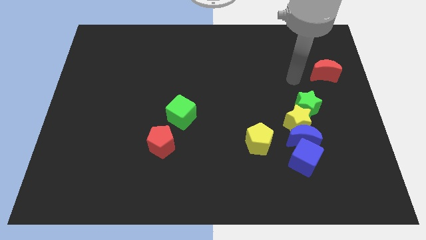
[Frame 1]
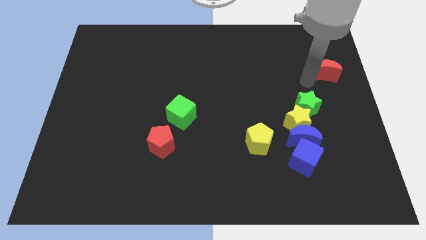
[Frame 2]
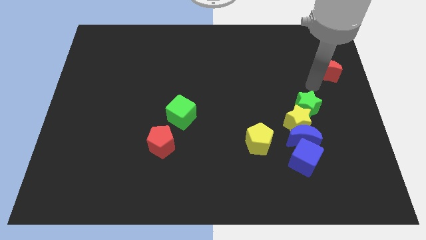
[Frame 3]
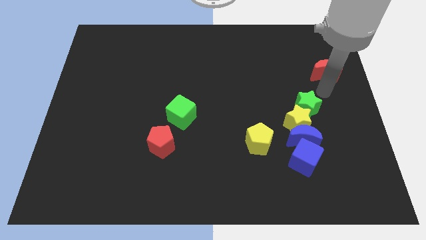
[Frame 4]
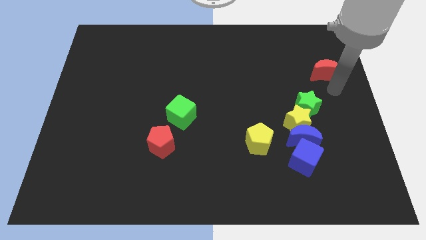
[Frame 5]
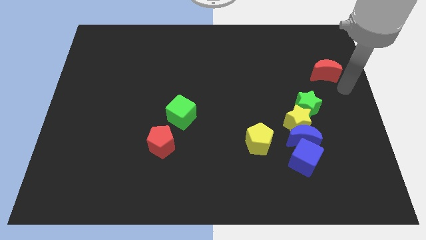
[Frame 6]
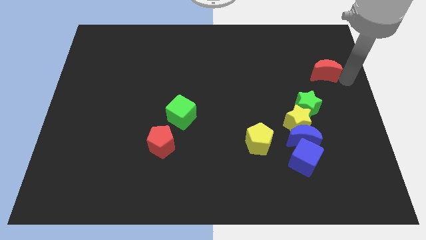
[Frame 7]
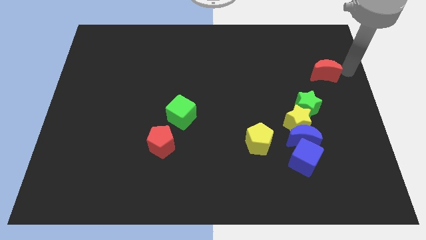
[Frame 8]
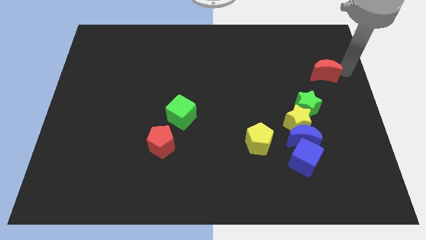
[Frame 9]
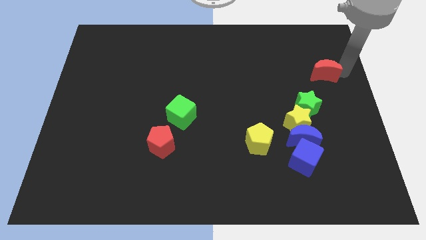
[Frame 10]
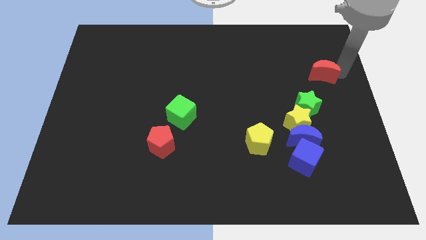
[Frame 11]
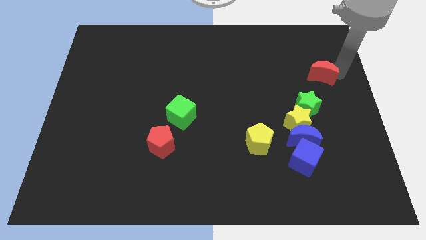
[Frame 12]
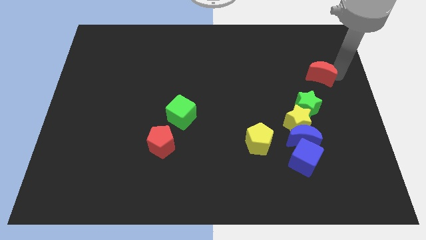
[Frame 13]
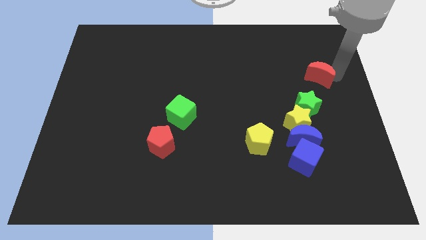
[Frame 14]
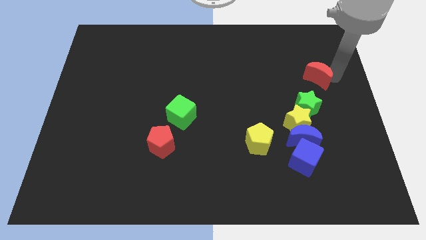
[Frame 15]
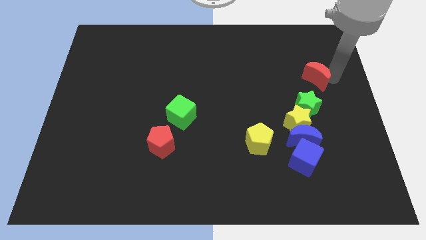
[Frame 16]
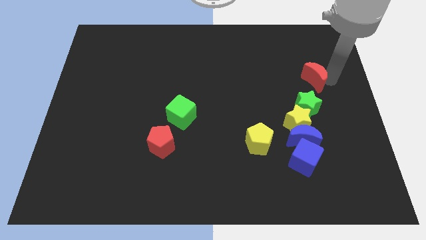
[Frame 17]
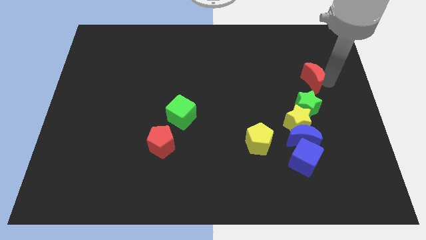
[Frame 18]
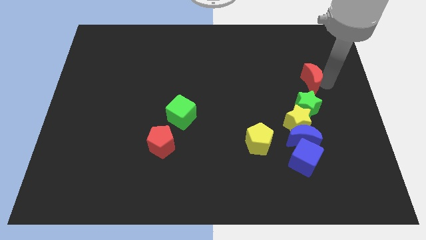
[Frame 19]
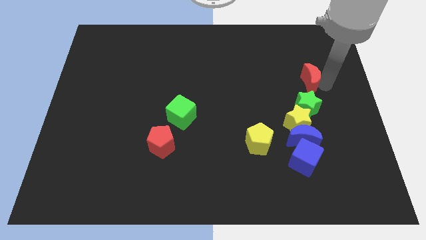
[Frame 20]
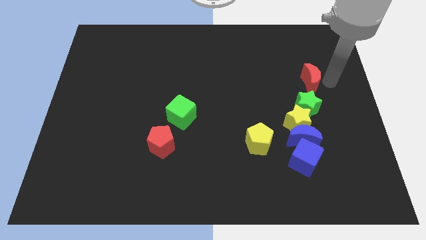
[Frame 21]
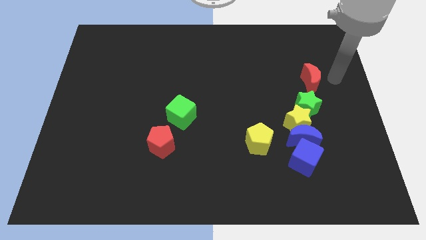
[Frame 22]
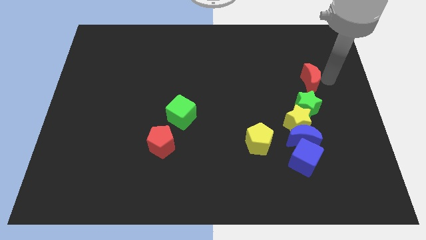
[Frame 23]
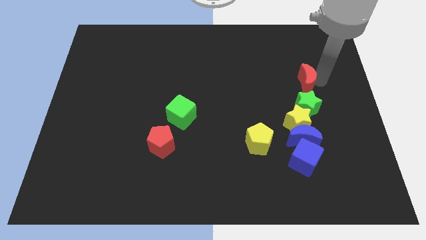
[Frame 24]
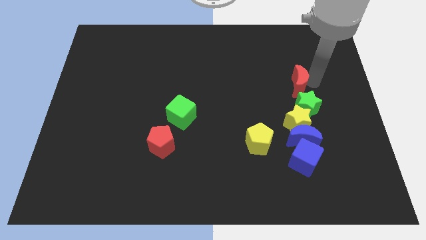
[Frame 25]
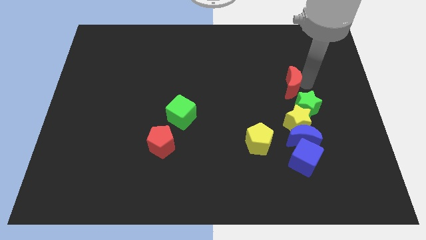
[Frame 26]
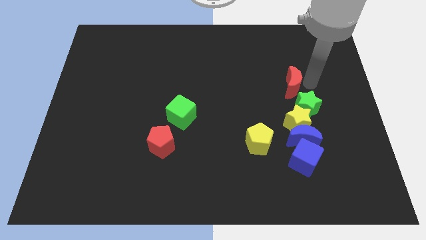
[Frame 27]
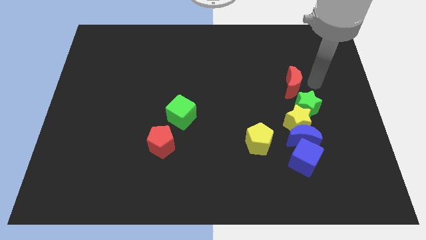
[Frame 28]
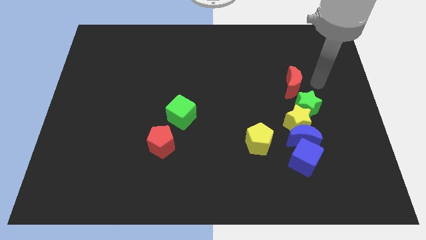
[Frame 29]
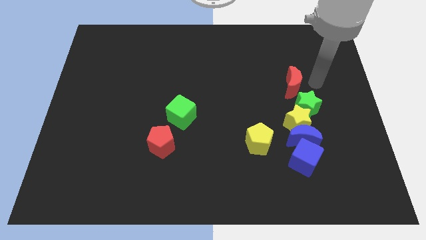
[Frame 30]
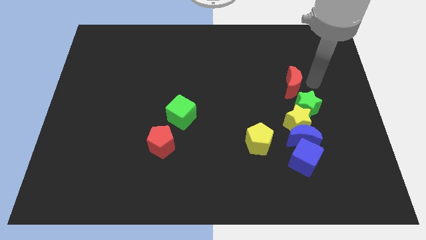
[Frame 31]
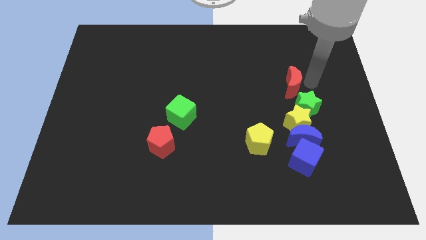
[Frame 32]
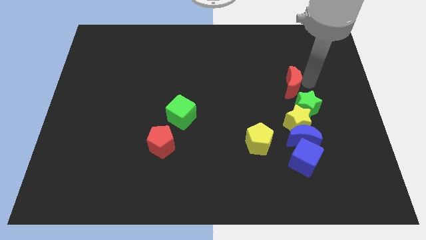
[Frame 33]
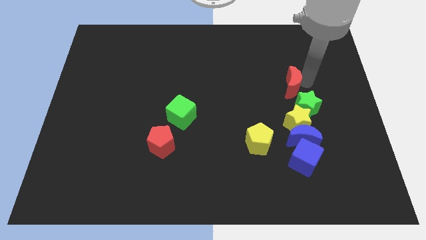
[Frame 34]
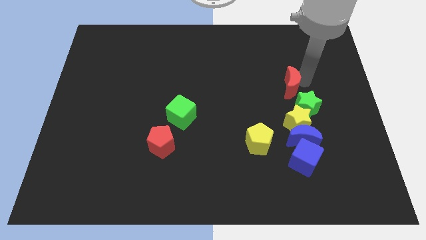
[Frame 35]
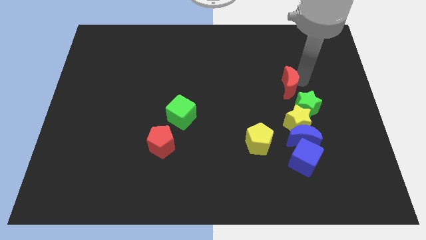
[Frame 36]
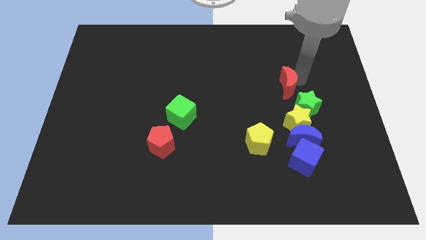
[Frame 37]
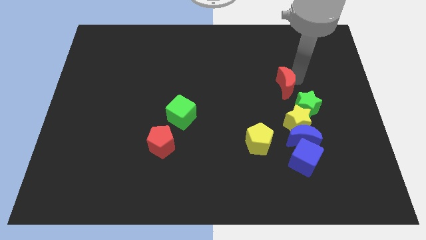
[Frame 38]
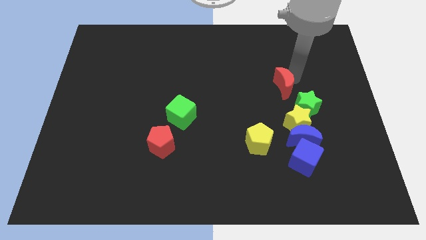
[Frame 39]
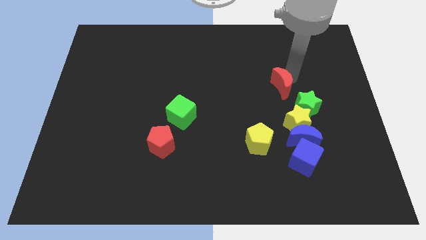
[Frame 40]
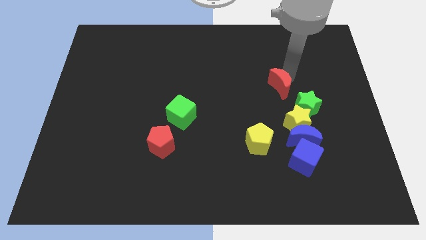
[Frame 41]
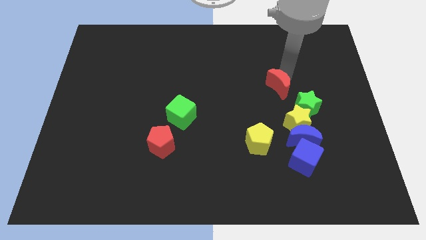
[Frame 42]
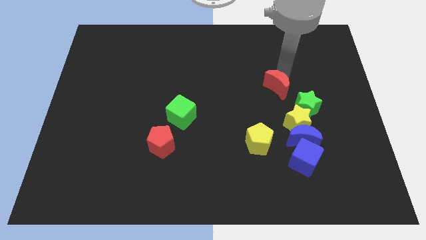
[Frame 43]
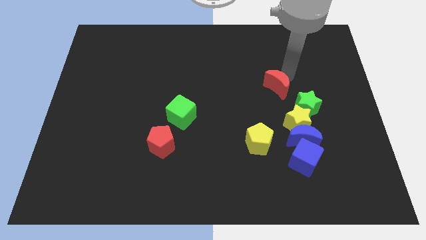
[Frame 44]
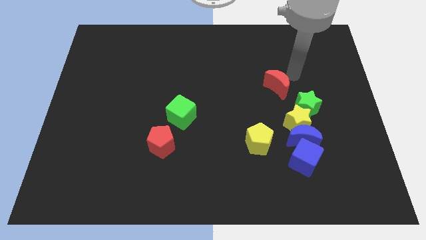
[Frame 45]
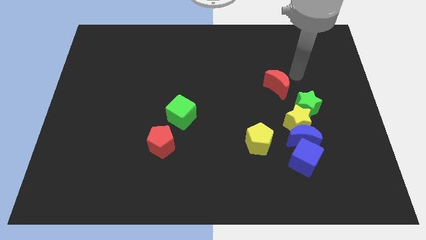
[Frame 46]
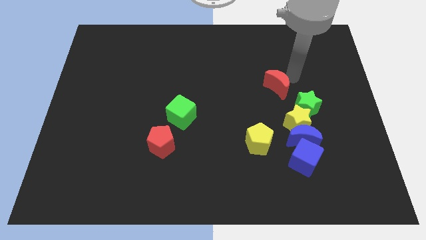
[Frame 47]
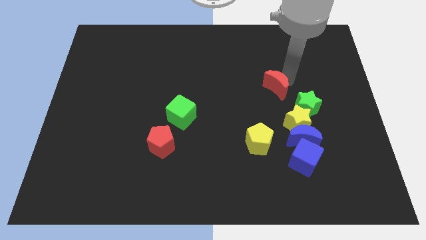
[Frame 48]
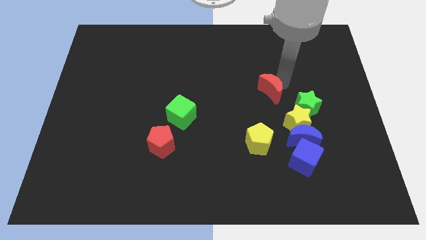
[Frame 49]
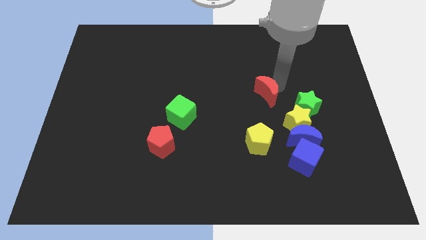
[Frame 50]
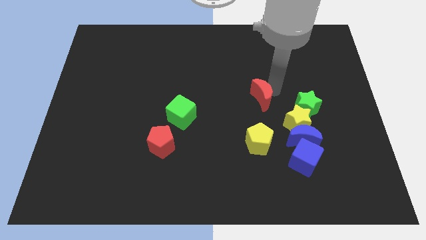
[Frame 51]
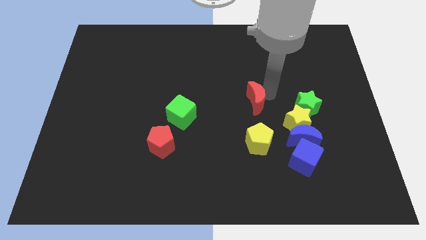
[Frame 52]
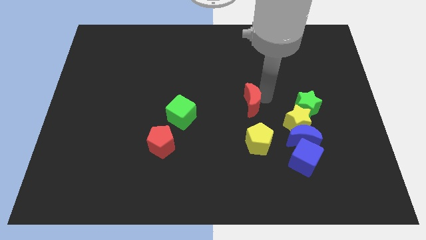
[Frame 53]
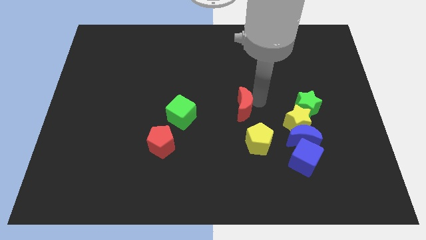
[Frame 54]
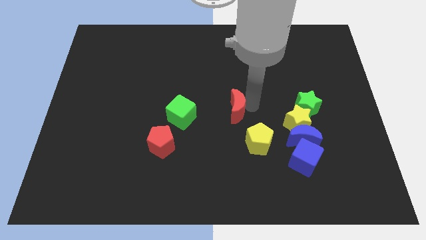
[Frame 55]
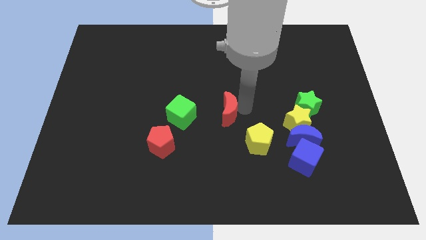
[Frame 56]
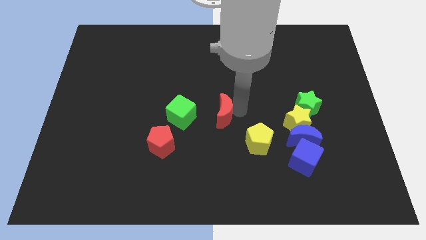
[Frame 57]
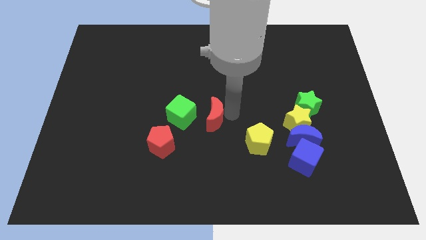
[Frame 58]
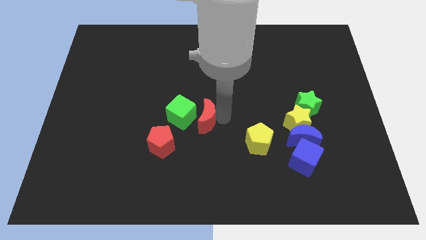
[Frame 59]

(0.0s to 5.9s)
move the red moon to the green cube

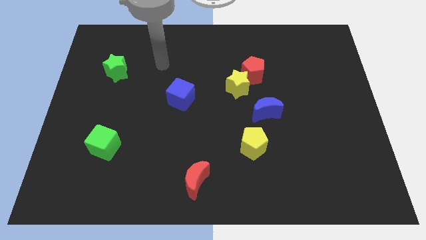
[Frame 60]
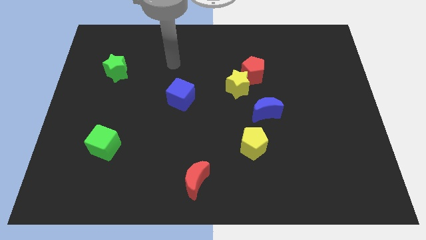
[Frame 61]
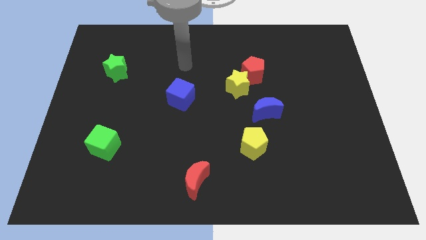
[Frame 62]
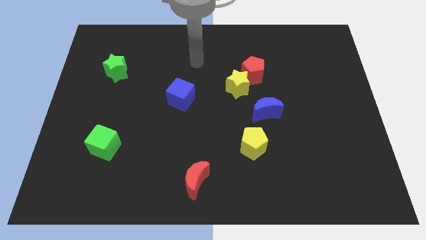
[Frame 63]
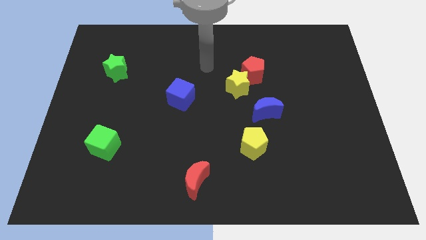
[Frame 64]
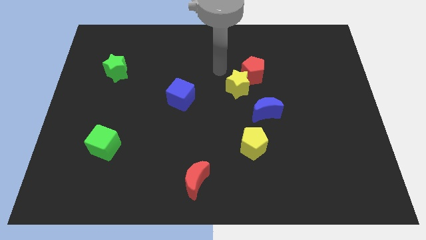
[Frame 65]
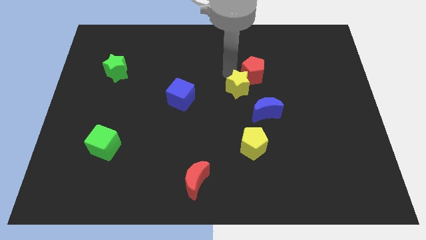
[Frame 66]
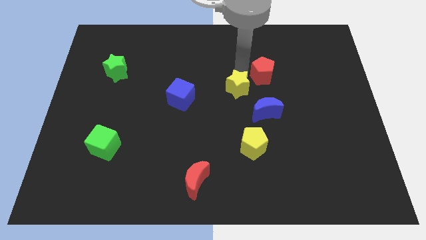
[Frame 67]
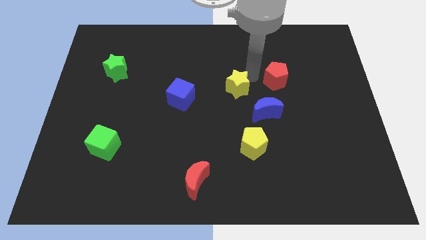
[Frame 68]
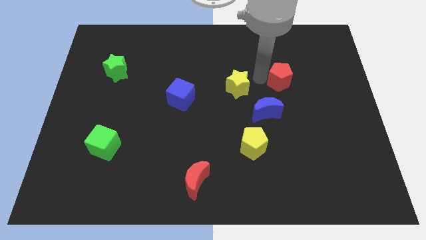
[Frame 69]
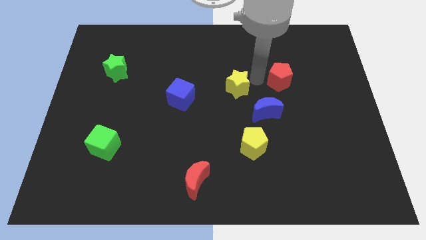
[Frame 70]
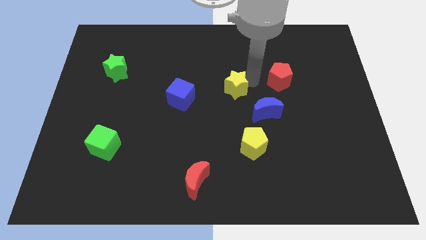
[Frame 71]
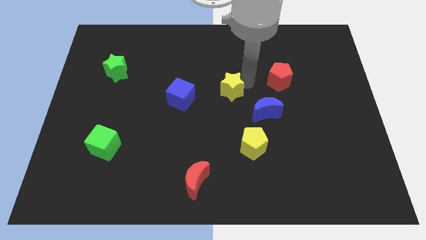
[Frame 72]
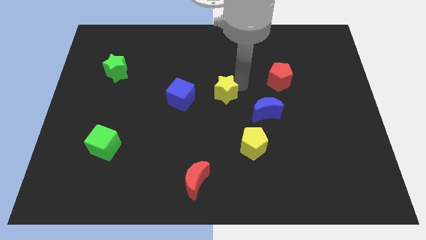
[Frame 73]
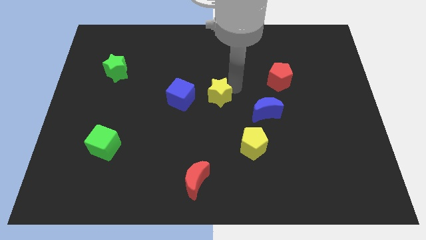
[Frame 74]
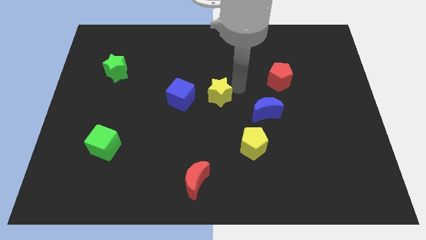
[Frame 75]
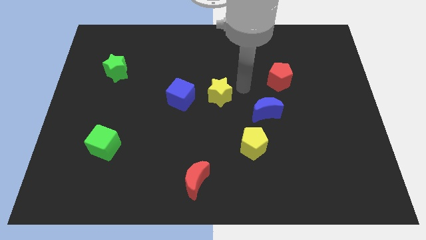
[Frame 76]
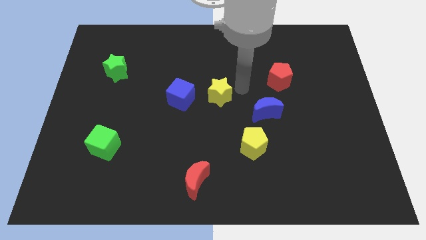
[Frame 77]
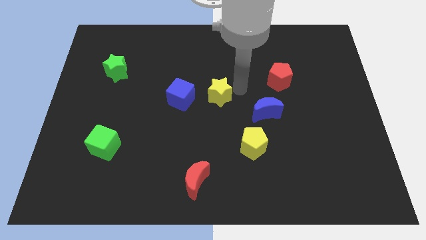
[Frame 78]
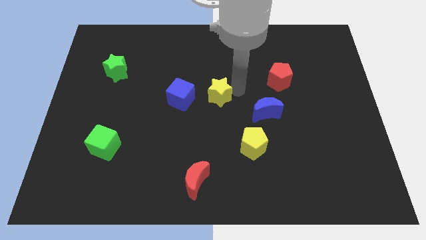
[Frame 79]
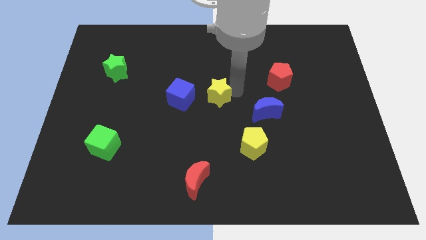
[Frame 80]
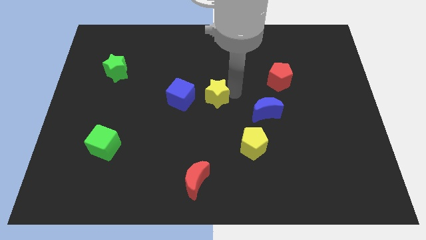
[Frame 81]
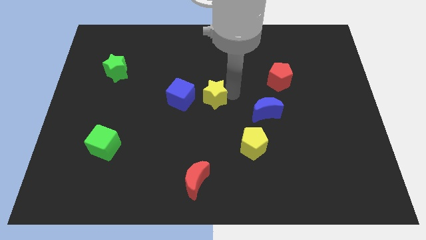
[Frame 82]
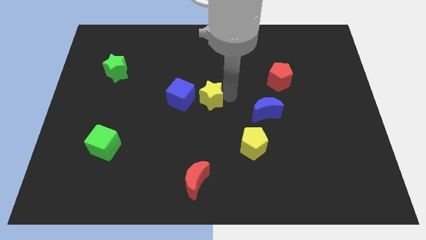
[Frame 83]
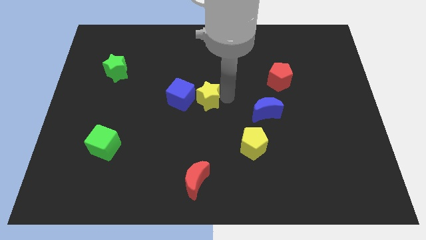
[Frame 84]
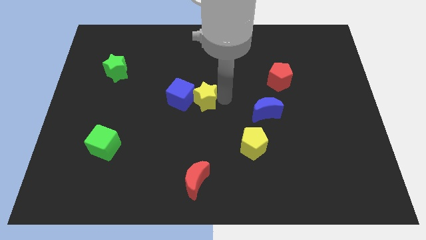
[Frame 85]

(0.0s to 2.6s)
put the yellow star to the blue cube

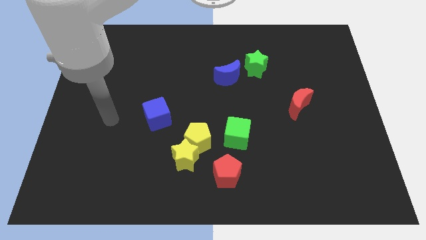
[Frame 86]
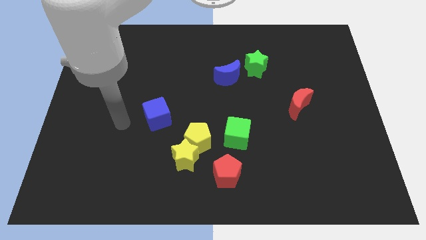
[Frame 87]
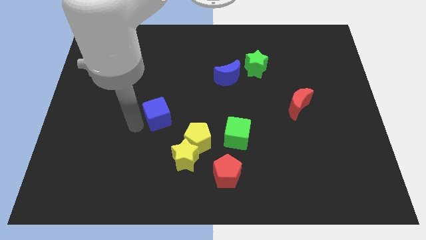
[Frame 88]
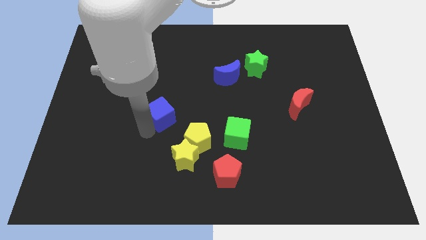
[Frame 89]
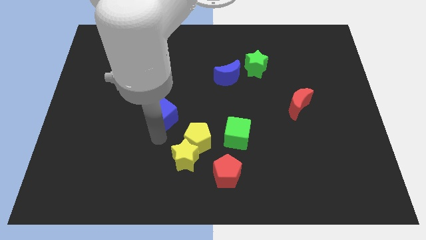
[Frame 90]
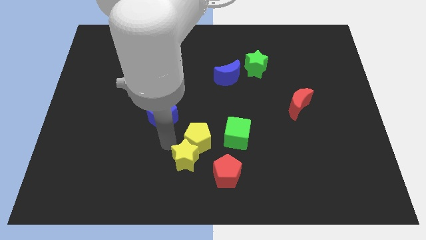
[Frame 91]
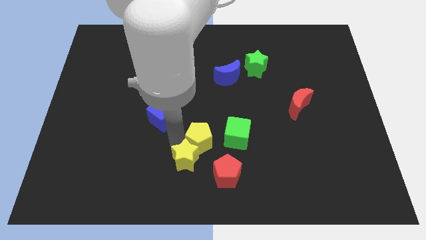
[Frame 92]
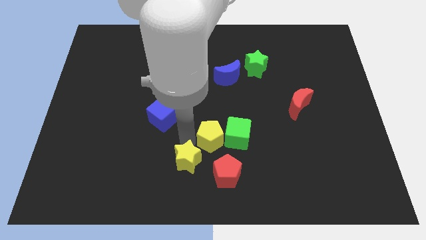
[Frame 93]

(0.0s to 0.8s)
slide the yellow pentagon to the green cube
